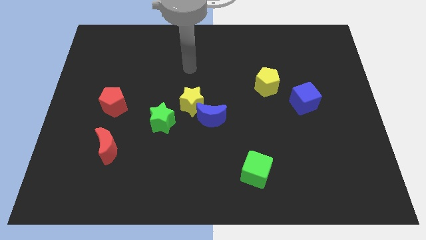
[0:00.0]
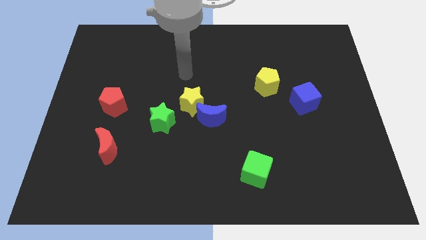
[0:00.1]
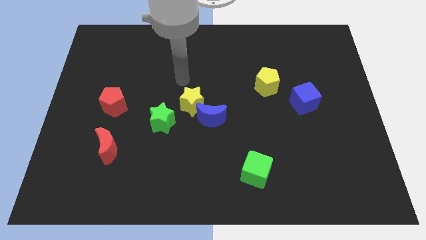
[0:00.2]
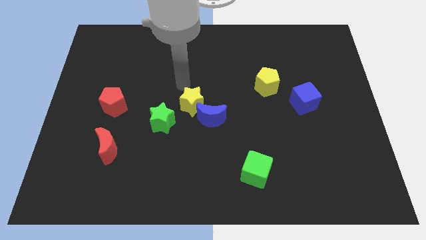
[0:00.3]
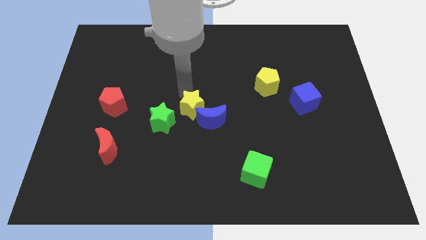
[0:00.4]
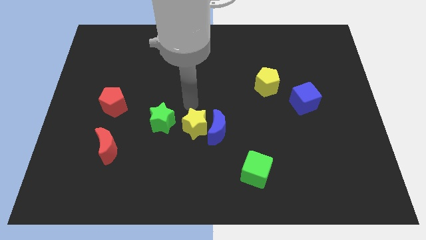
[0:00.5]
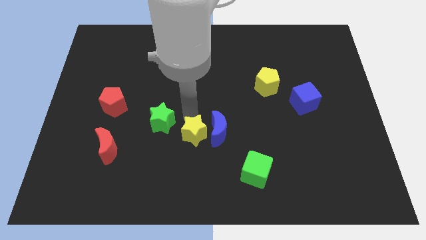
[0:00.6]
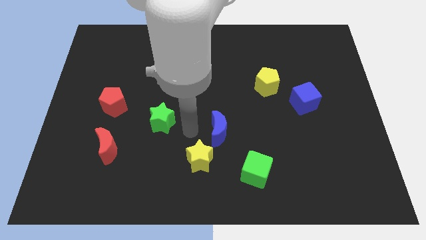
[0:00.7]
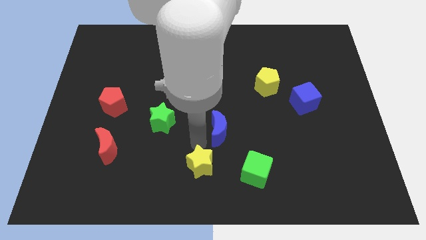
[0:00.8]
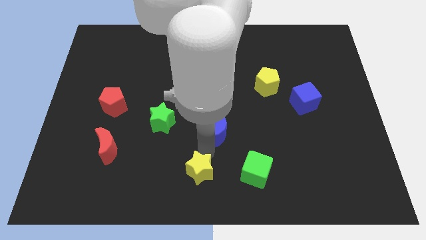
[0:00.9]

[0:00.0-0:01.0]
separate the blue moon from the yellow star

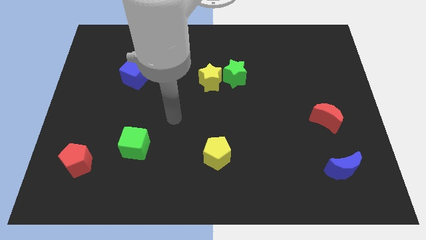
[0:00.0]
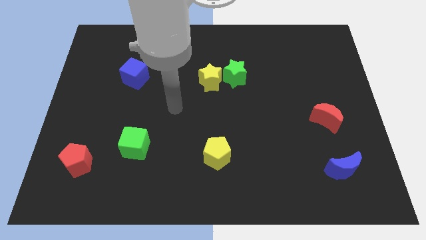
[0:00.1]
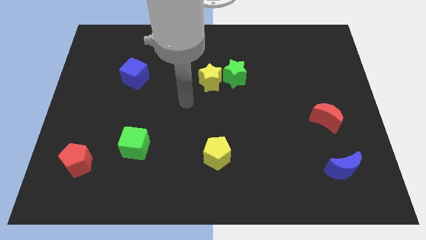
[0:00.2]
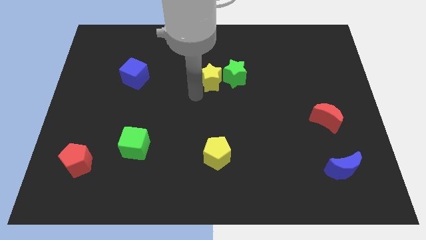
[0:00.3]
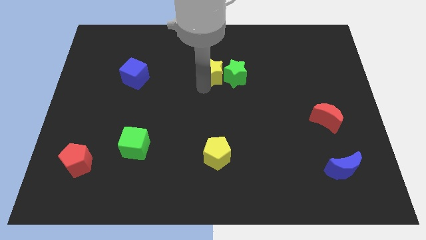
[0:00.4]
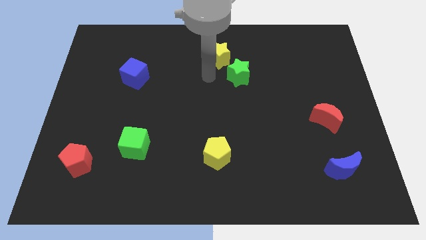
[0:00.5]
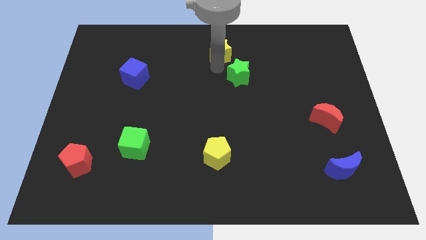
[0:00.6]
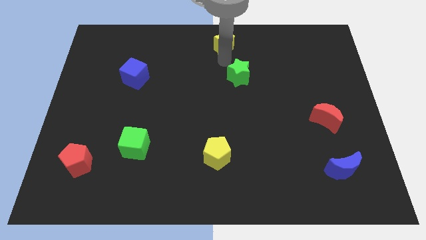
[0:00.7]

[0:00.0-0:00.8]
separate the green star from the yellow star

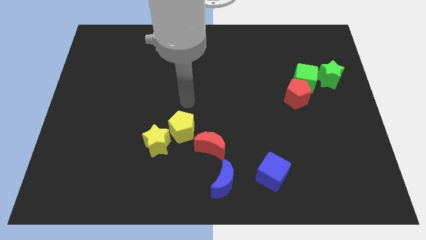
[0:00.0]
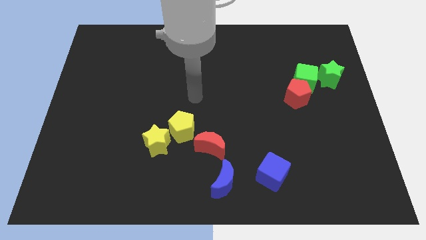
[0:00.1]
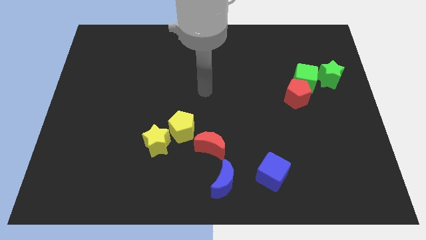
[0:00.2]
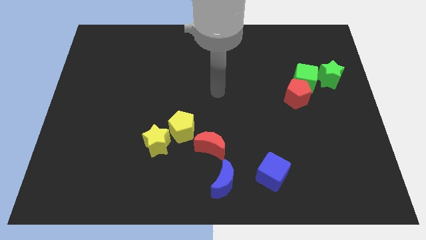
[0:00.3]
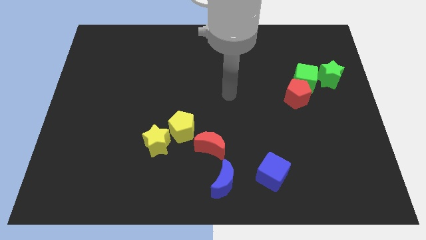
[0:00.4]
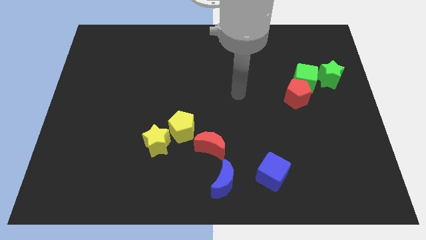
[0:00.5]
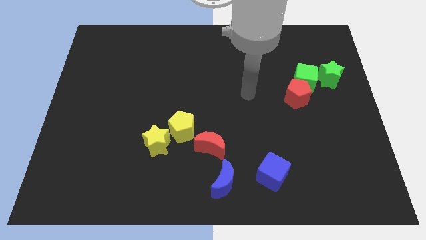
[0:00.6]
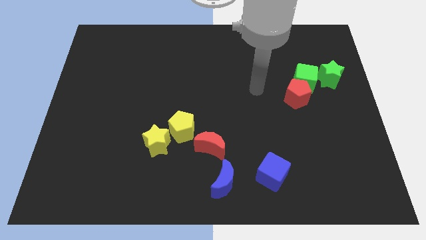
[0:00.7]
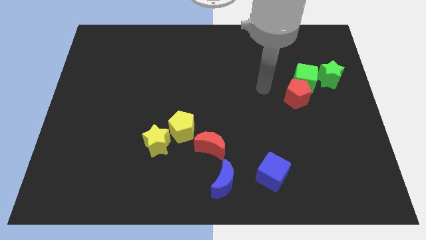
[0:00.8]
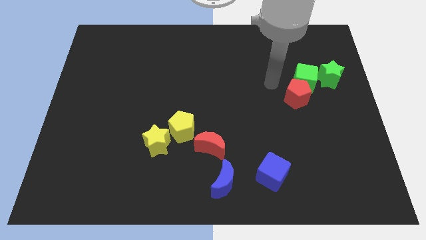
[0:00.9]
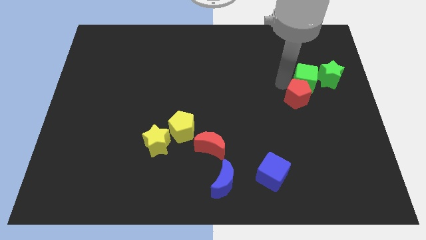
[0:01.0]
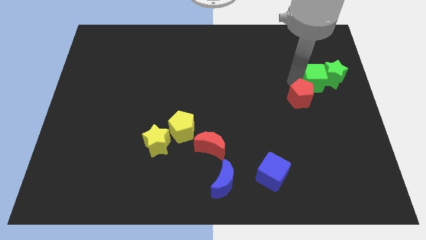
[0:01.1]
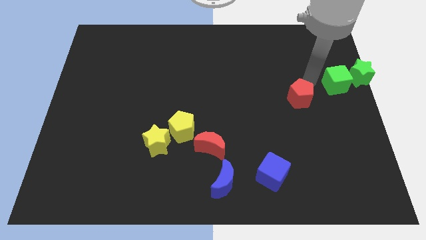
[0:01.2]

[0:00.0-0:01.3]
separate the red pentagon from the green cube

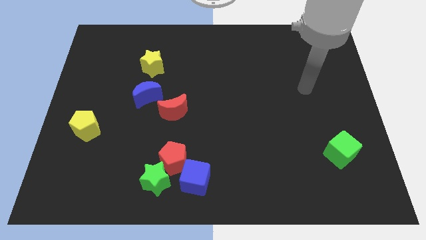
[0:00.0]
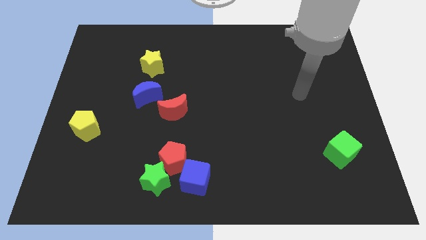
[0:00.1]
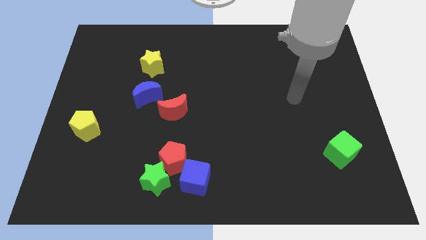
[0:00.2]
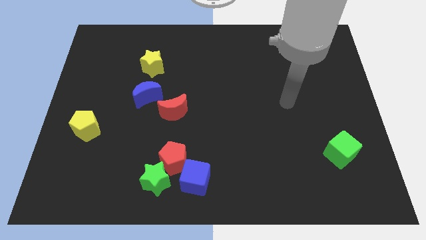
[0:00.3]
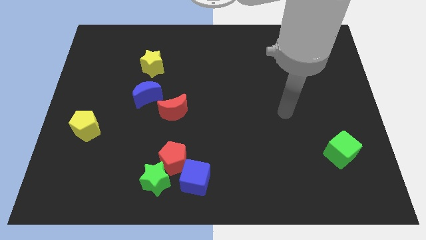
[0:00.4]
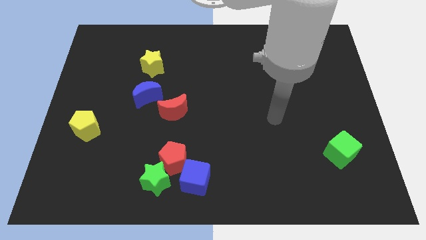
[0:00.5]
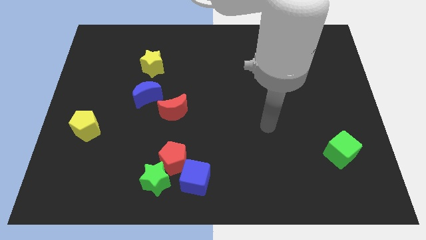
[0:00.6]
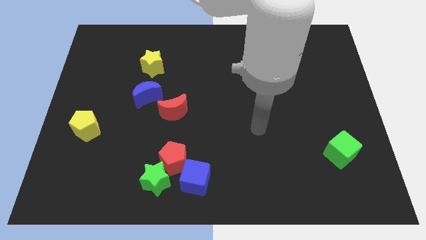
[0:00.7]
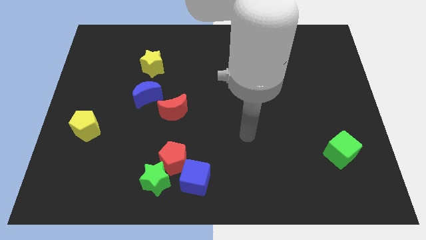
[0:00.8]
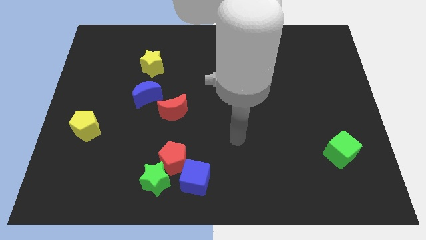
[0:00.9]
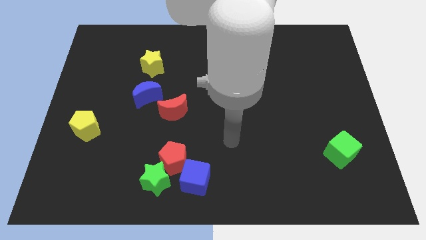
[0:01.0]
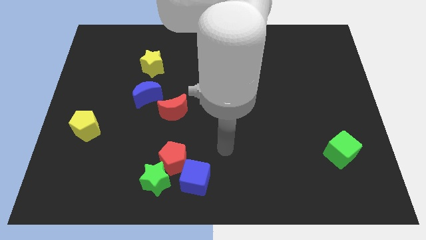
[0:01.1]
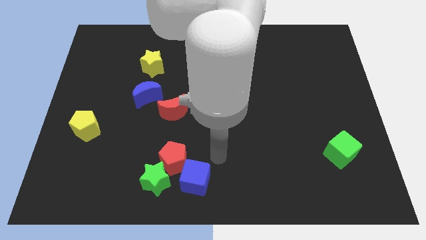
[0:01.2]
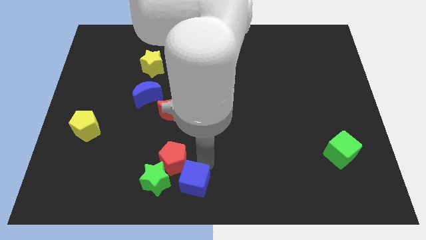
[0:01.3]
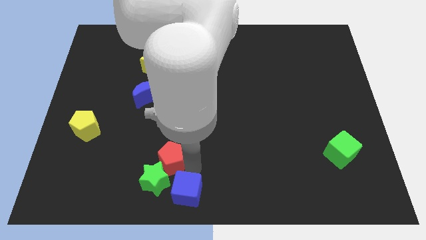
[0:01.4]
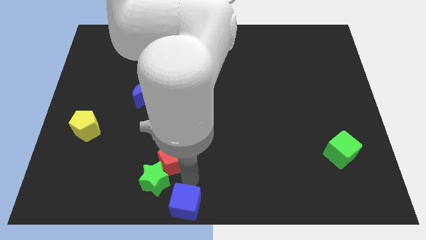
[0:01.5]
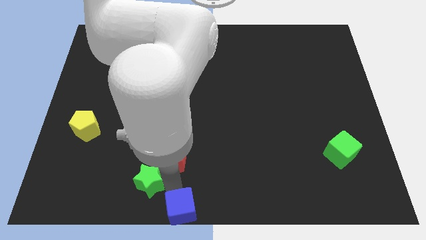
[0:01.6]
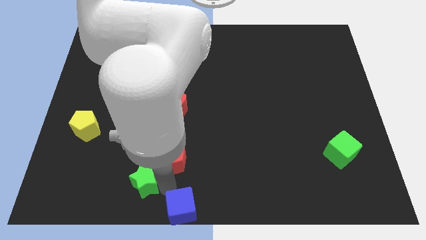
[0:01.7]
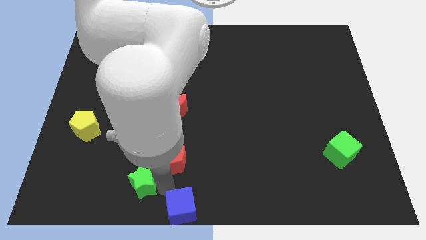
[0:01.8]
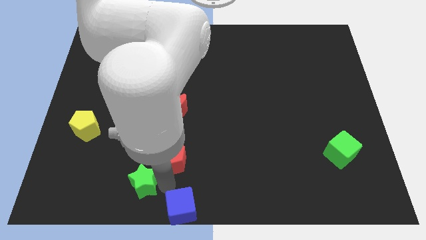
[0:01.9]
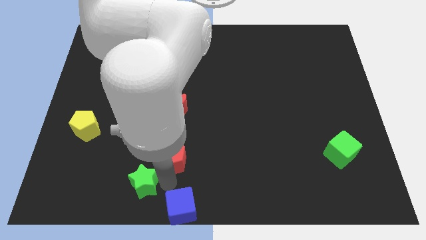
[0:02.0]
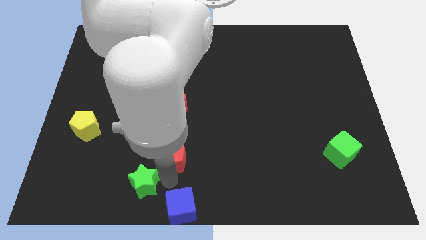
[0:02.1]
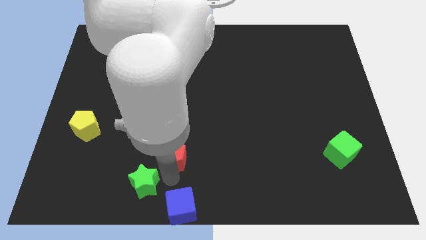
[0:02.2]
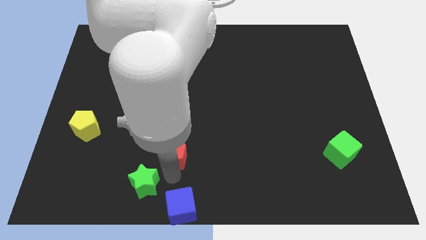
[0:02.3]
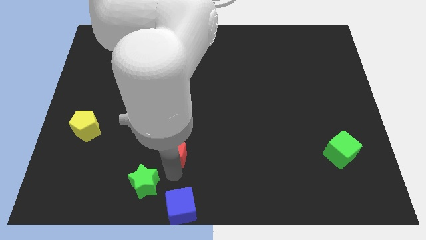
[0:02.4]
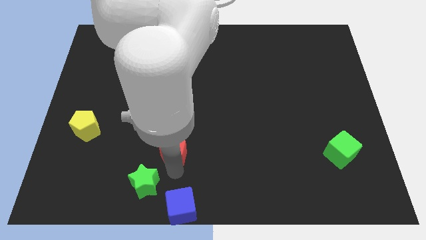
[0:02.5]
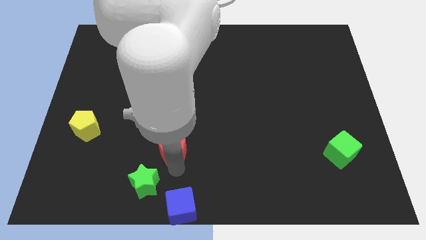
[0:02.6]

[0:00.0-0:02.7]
pull the red pentagon apart from the green star and blue cube

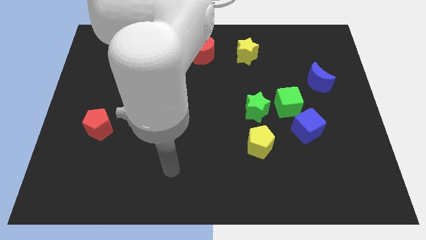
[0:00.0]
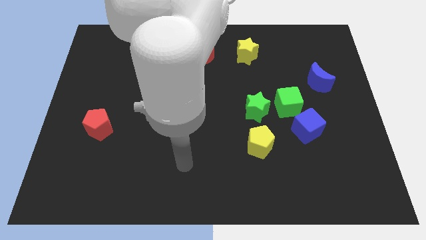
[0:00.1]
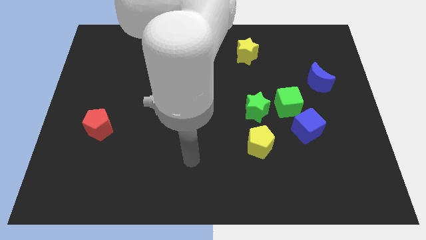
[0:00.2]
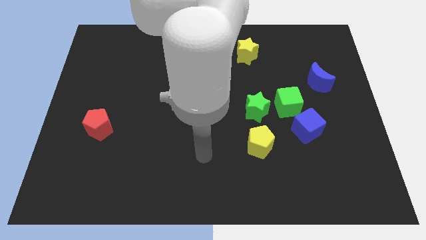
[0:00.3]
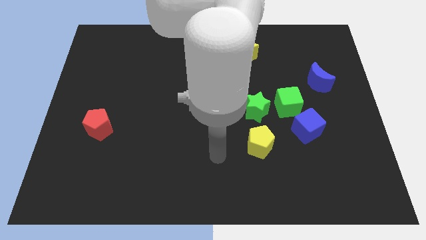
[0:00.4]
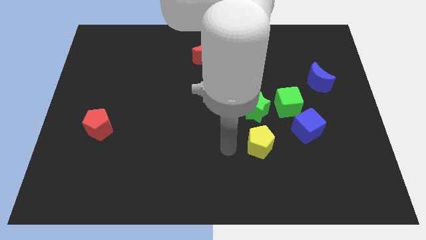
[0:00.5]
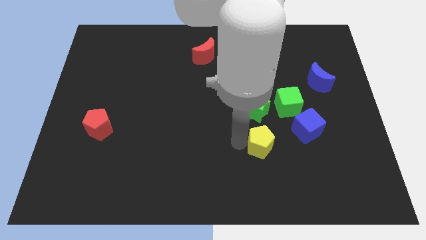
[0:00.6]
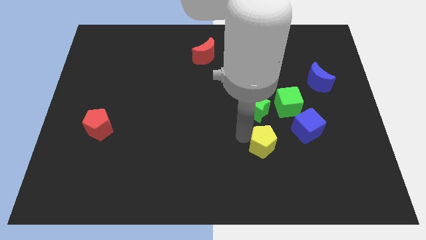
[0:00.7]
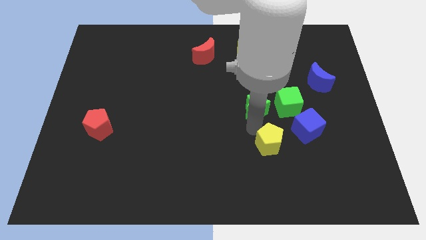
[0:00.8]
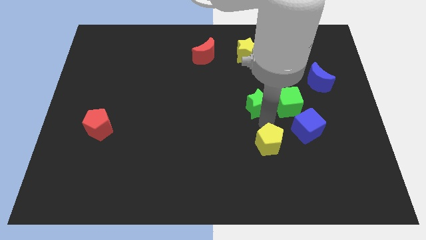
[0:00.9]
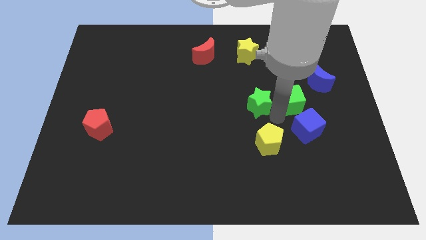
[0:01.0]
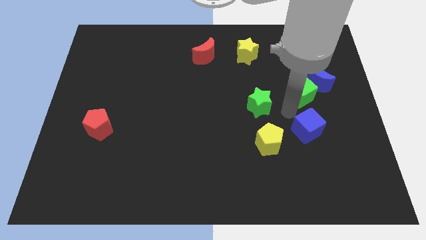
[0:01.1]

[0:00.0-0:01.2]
separate the blue cube from the green cube

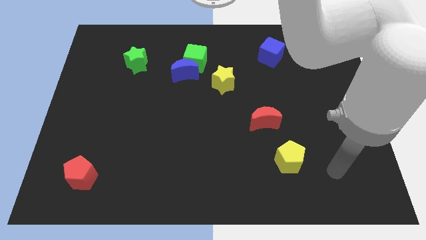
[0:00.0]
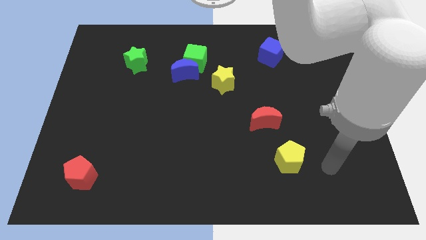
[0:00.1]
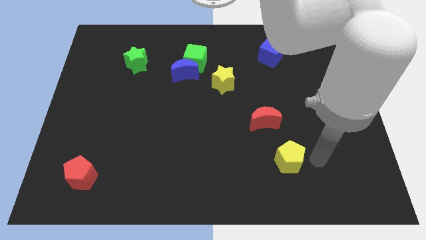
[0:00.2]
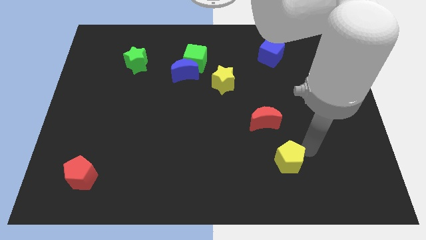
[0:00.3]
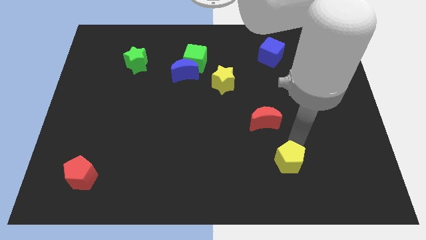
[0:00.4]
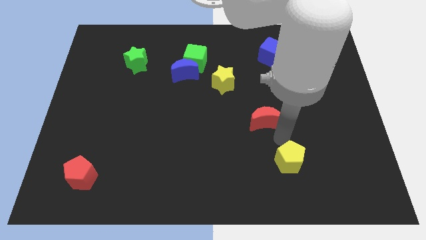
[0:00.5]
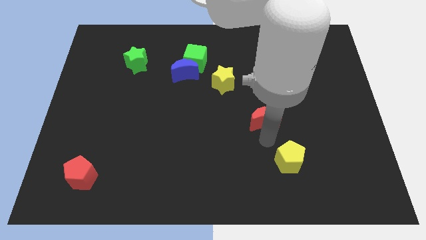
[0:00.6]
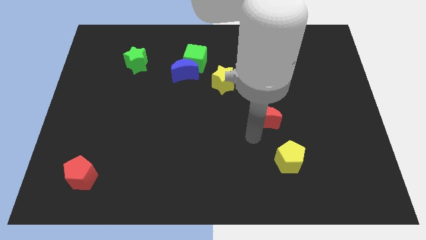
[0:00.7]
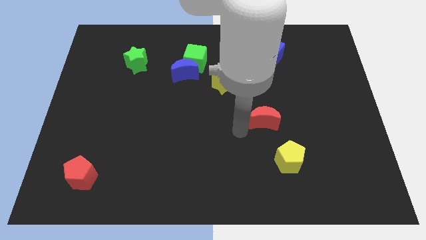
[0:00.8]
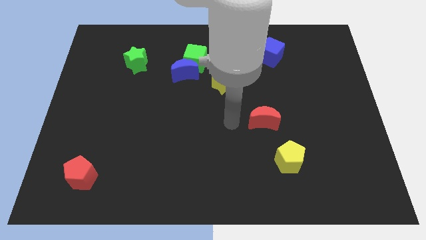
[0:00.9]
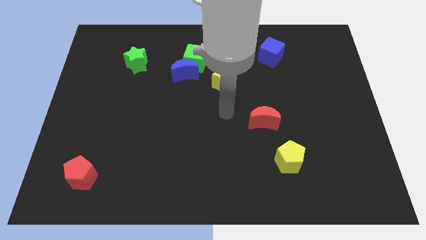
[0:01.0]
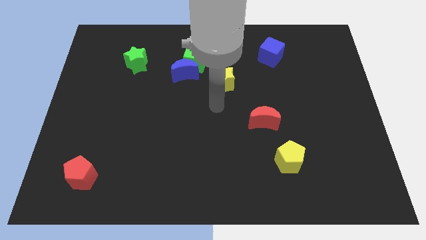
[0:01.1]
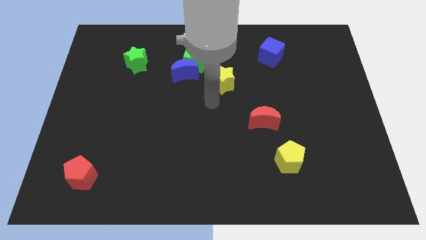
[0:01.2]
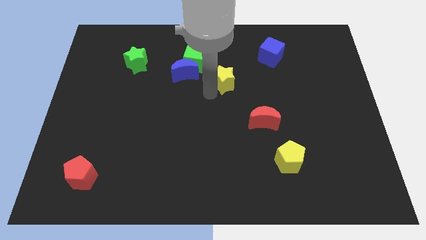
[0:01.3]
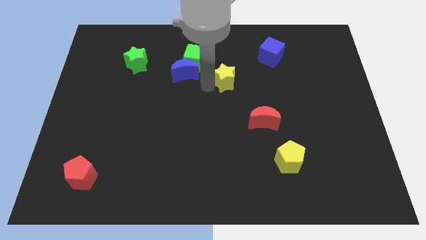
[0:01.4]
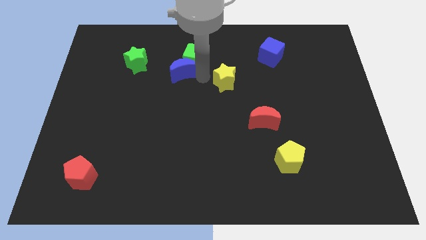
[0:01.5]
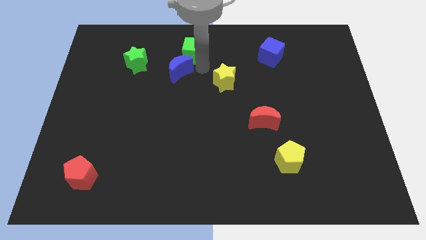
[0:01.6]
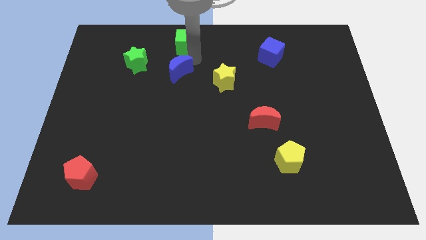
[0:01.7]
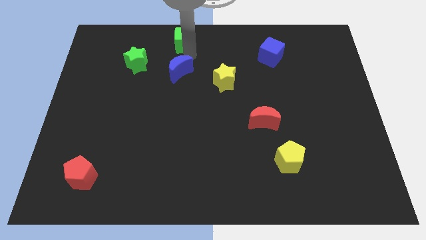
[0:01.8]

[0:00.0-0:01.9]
pull the blue moon apart from the green cube

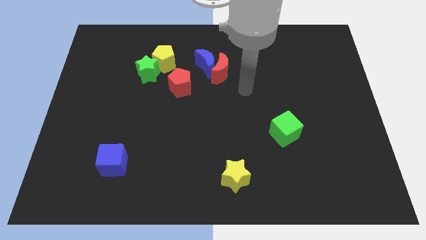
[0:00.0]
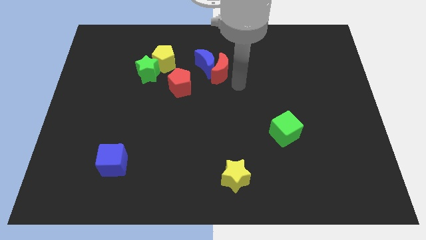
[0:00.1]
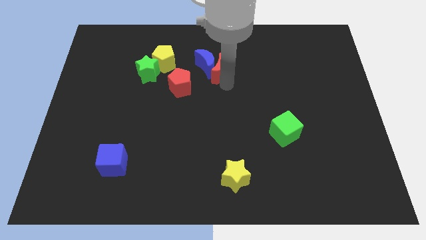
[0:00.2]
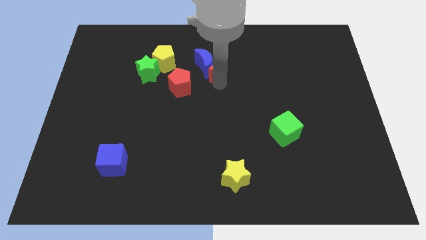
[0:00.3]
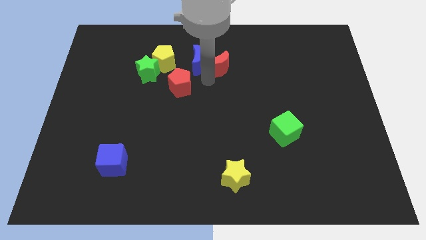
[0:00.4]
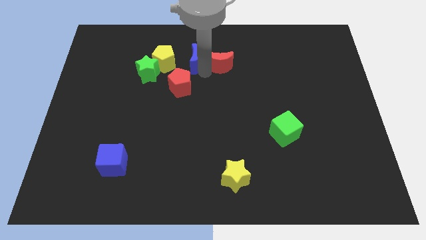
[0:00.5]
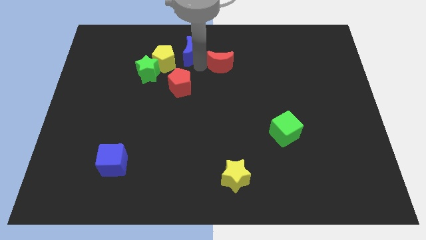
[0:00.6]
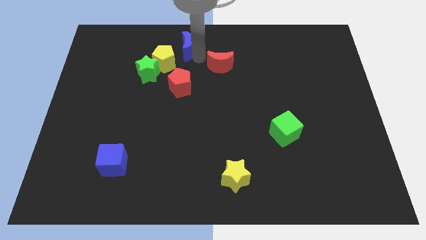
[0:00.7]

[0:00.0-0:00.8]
pull the red moon apart from the blue moon
